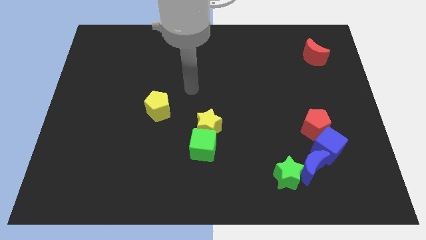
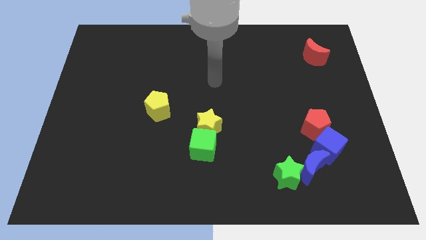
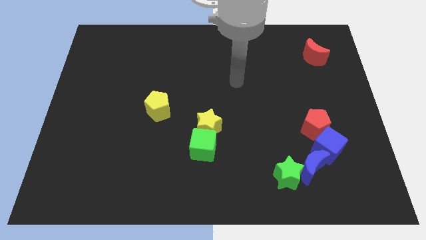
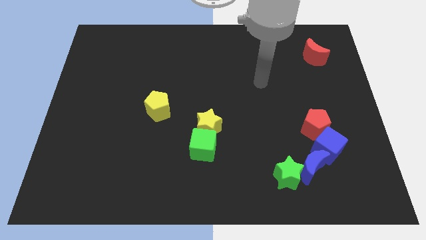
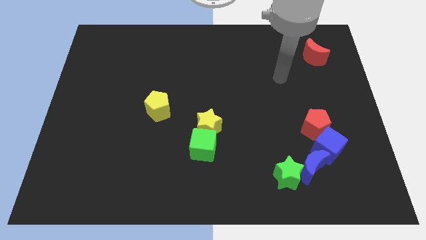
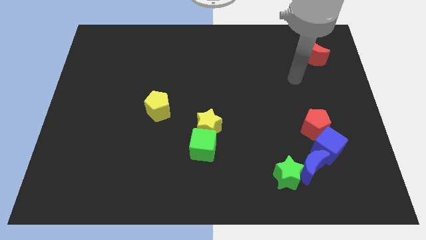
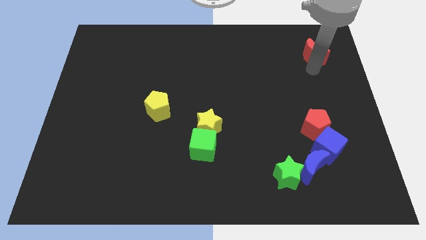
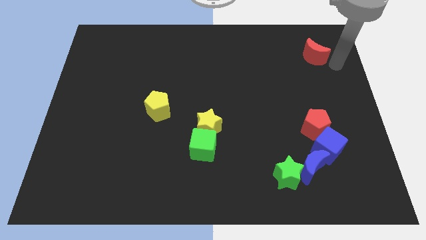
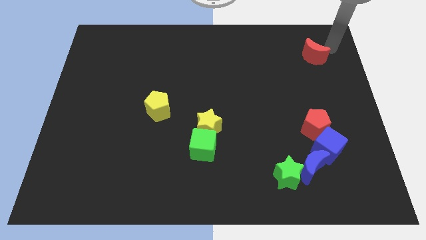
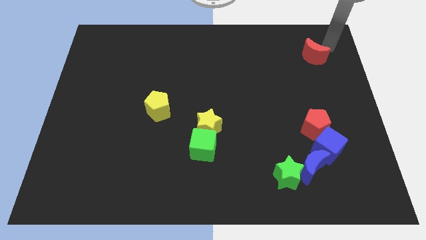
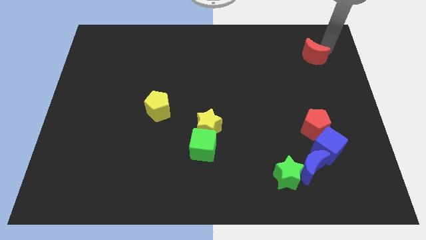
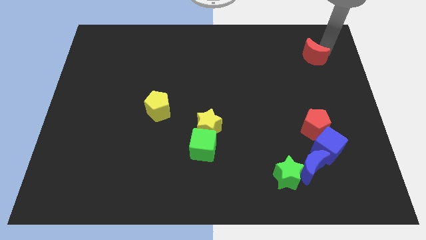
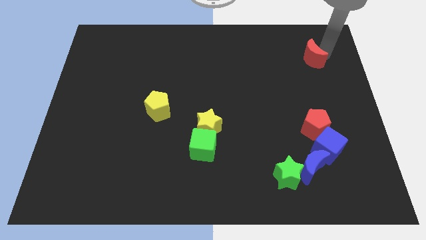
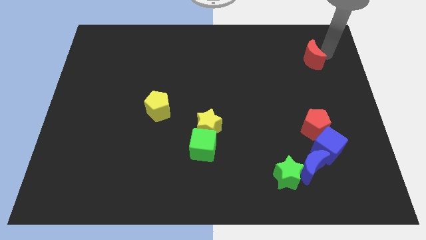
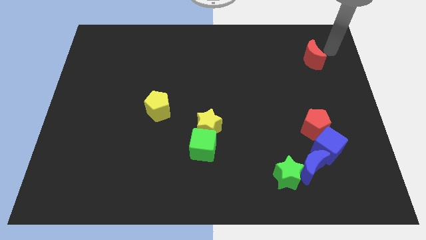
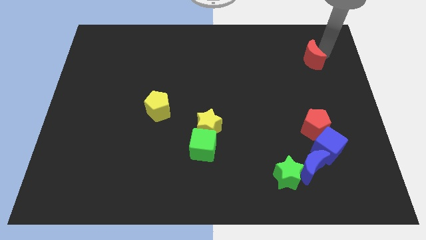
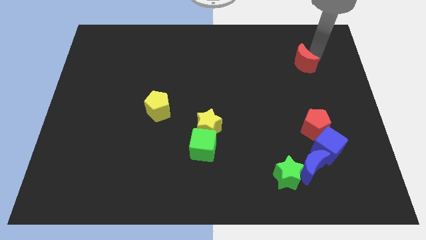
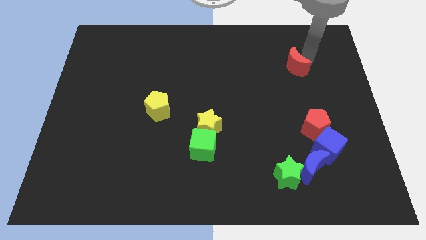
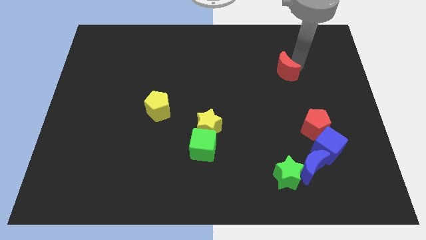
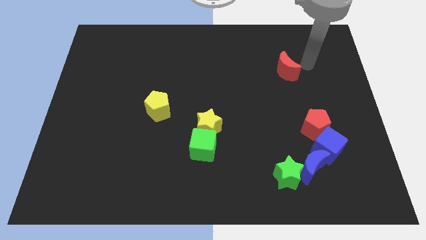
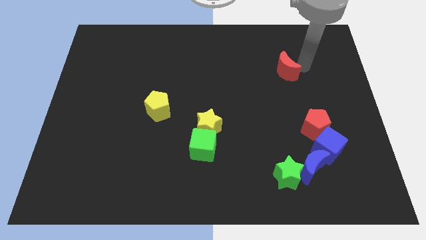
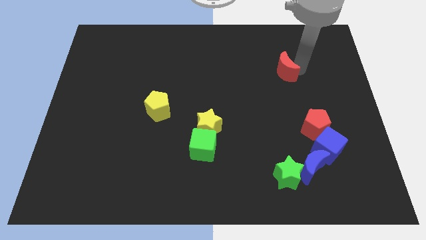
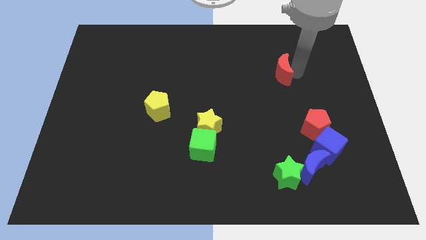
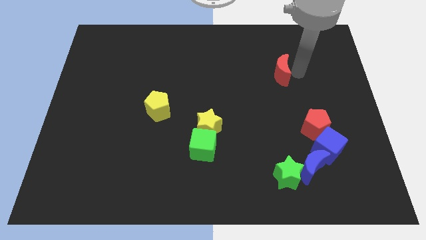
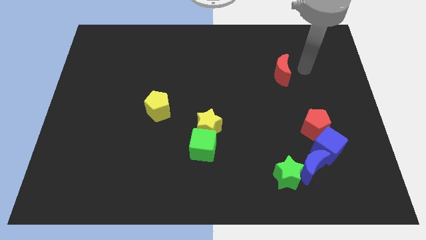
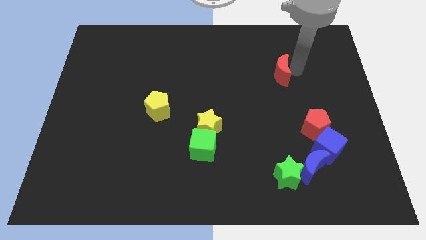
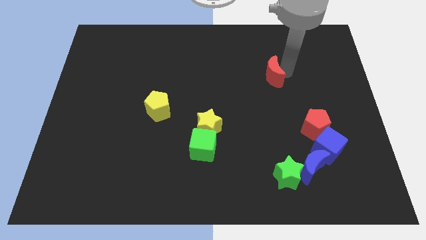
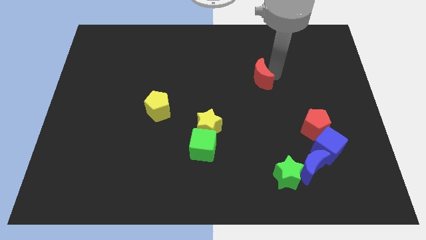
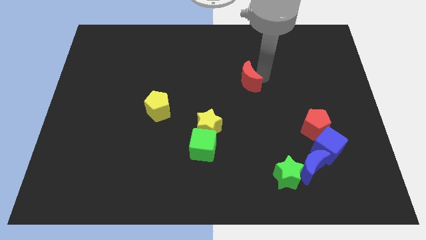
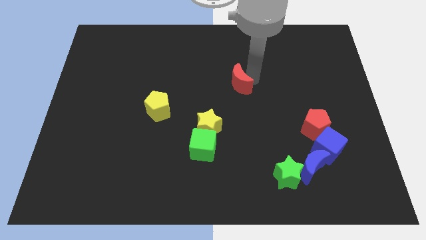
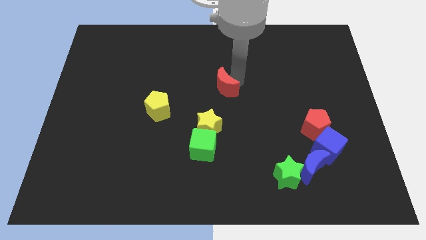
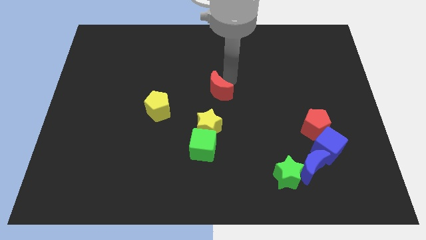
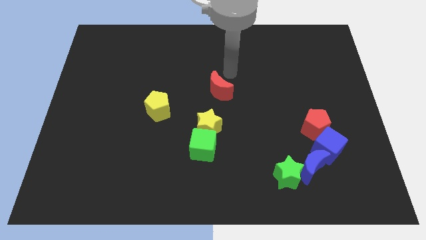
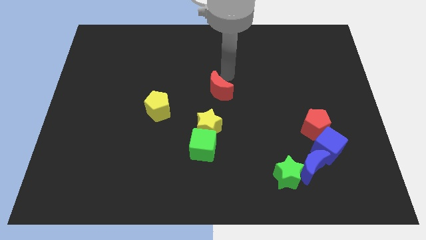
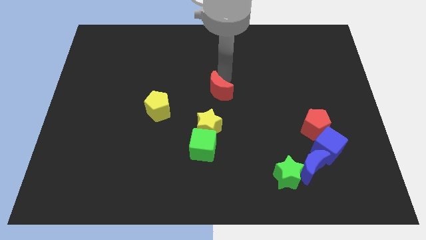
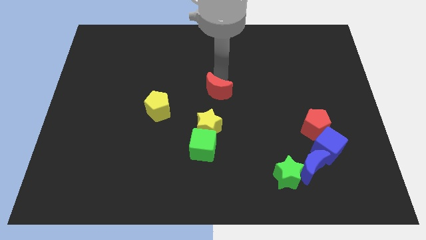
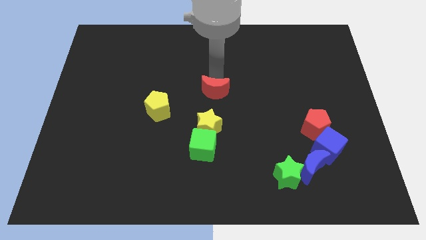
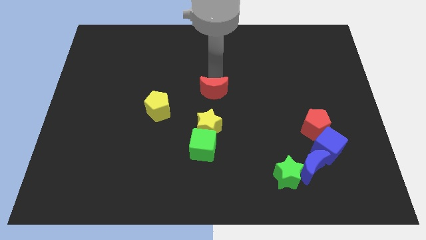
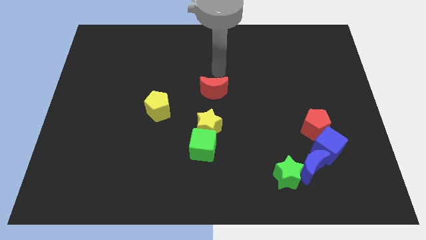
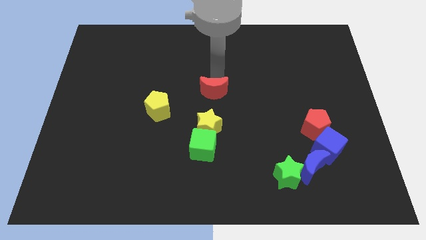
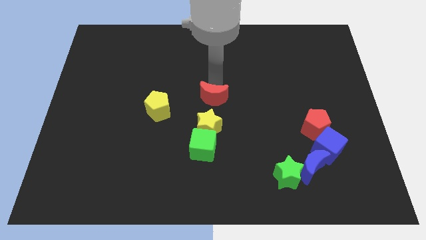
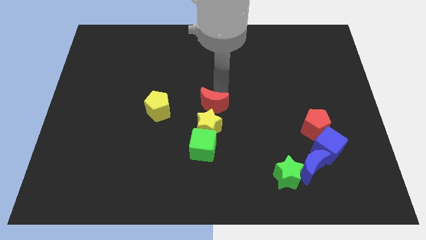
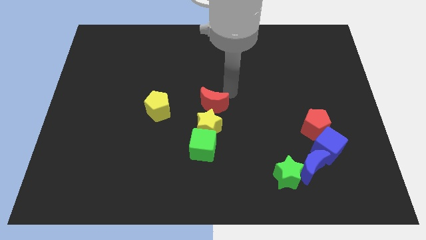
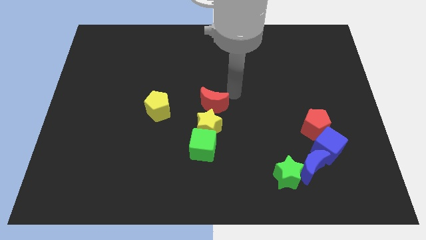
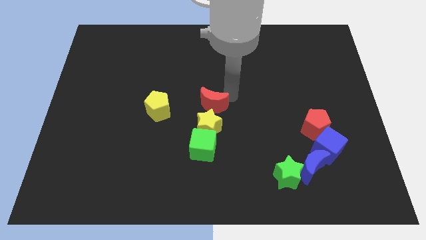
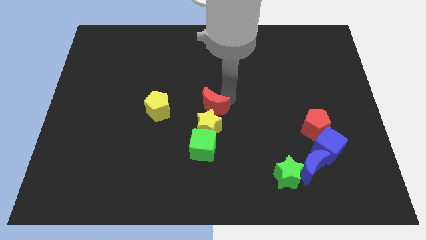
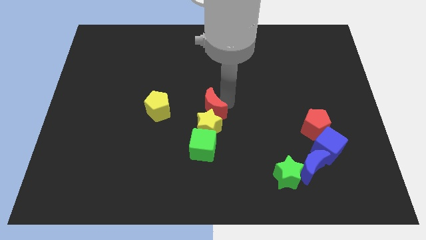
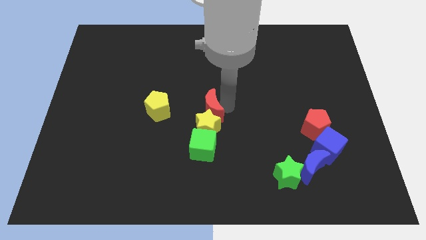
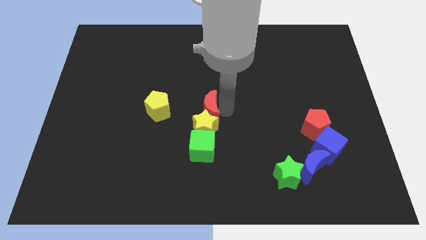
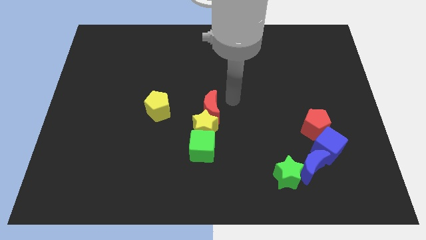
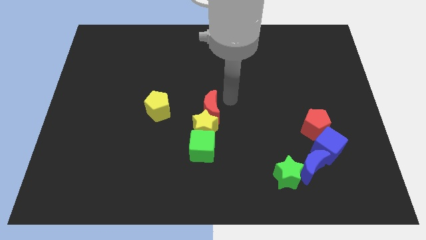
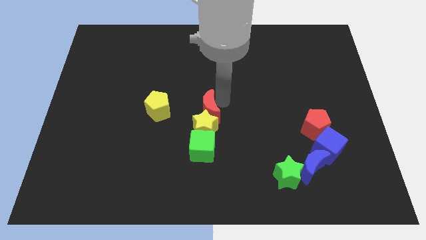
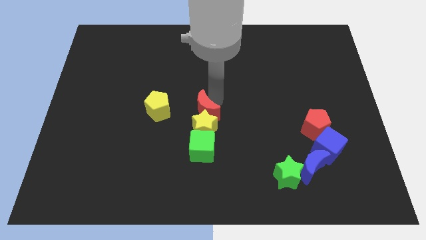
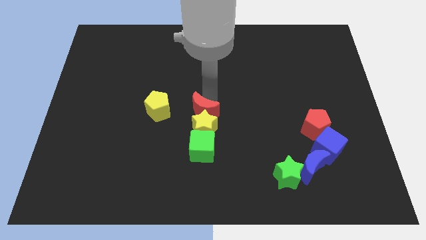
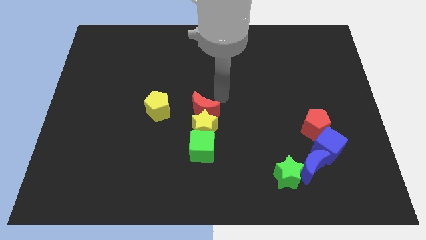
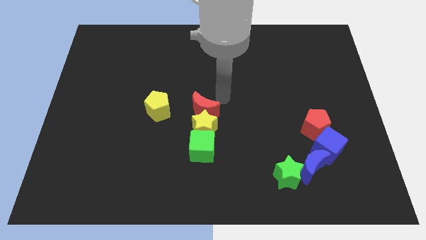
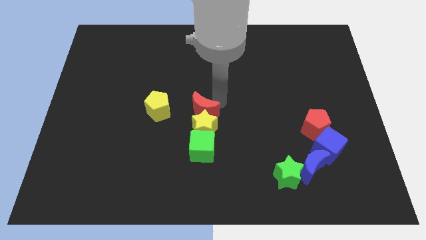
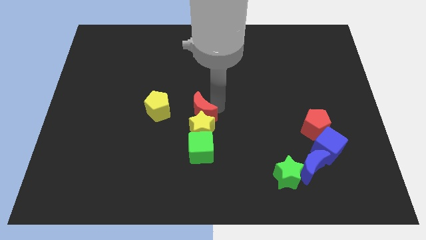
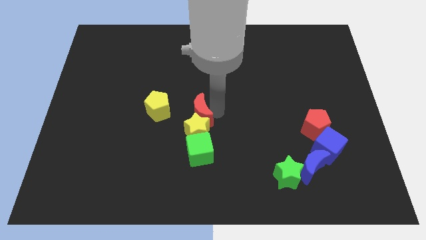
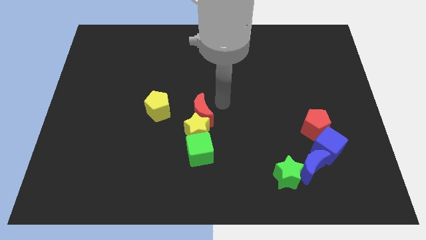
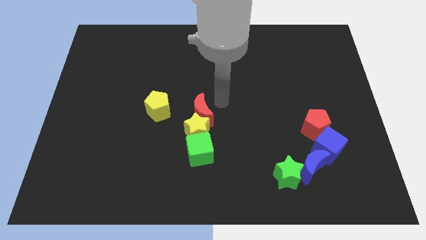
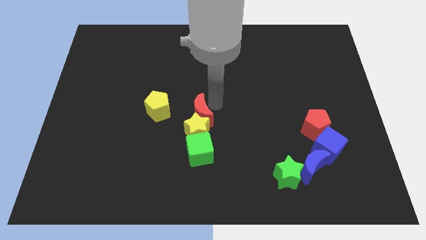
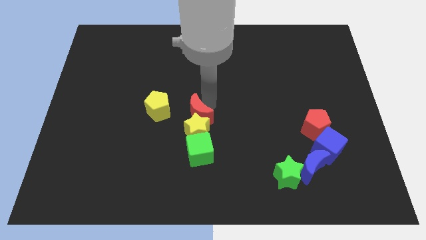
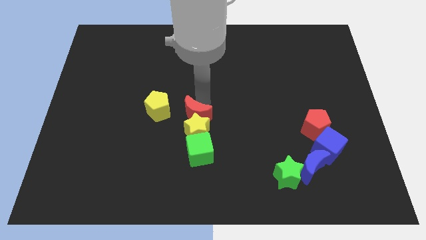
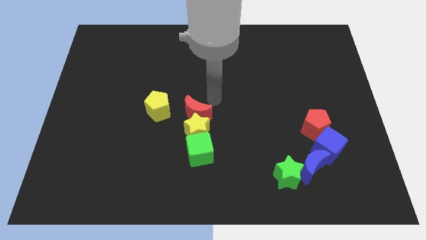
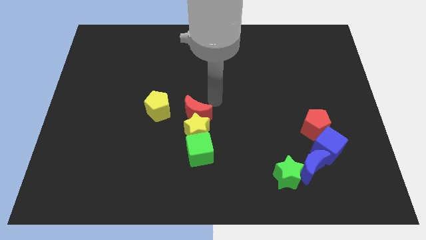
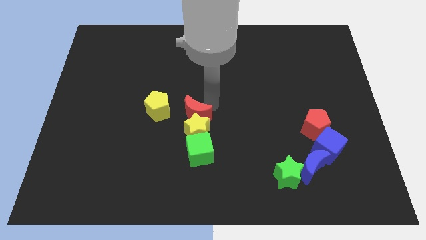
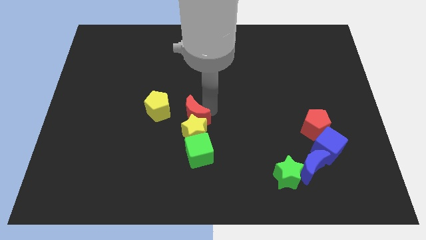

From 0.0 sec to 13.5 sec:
put the red moon diagonally down and to the right of the yellow pentagon
